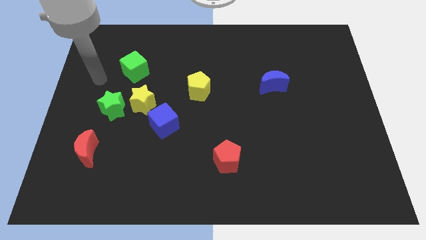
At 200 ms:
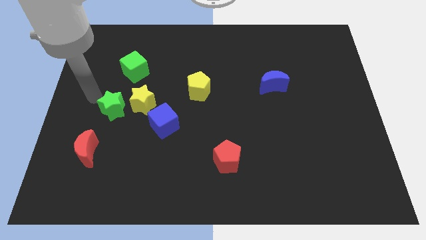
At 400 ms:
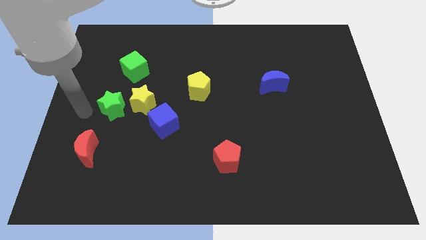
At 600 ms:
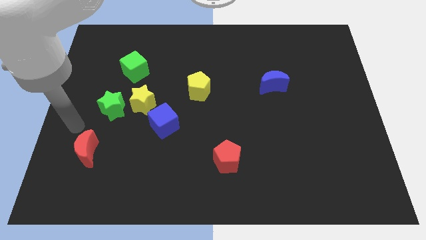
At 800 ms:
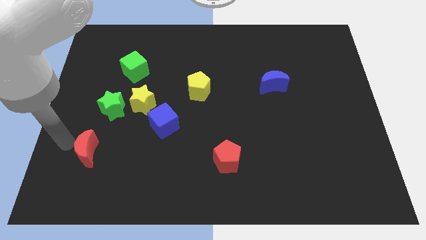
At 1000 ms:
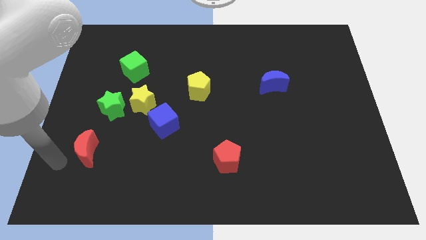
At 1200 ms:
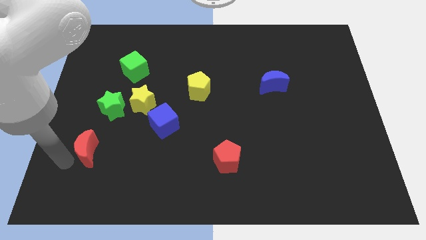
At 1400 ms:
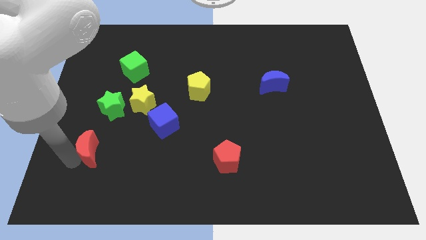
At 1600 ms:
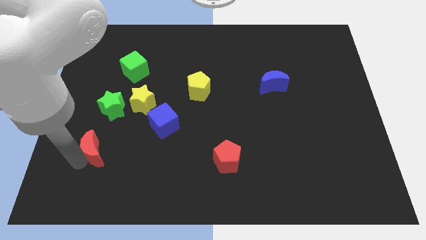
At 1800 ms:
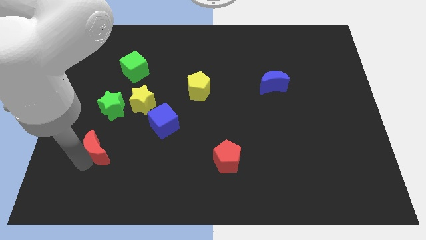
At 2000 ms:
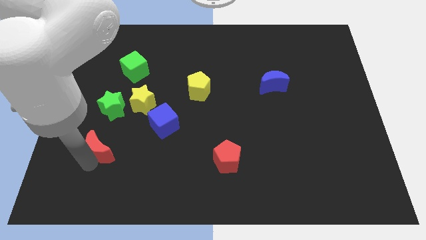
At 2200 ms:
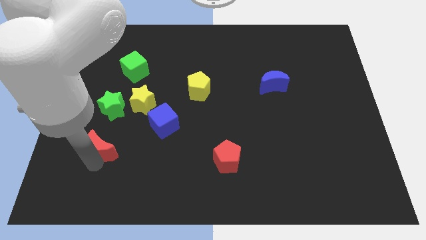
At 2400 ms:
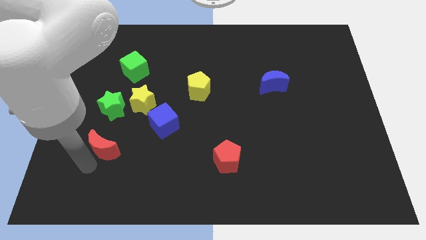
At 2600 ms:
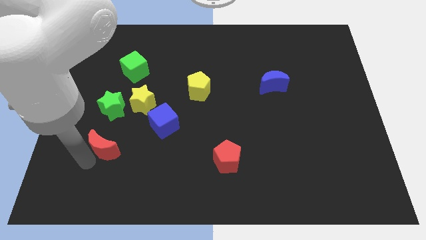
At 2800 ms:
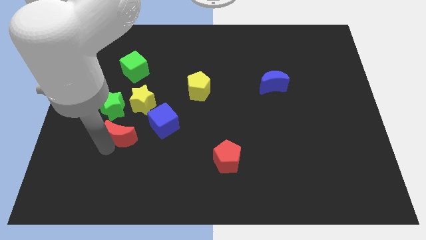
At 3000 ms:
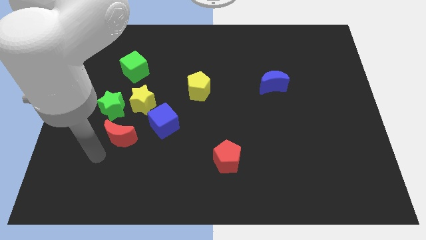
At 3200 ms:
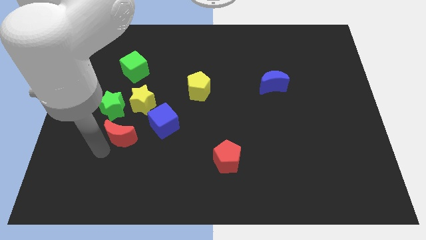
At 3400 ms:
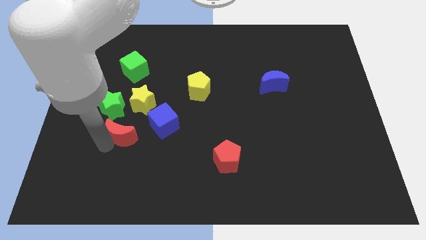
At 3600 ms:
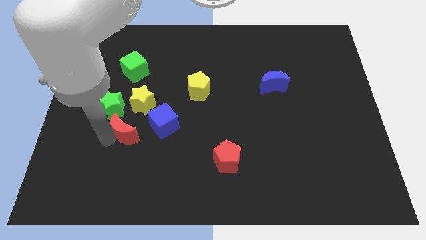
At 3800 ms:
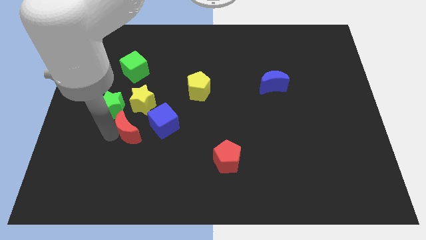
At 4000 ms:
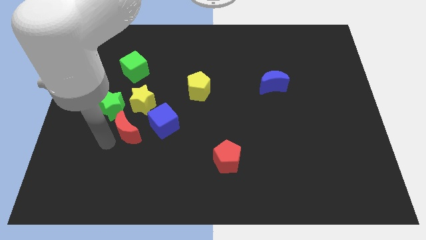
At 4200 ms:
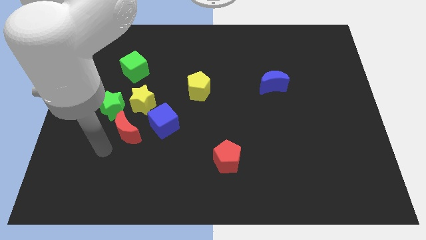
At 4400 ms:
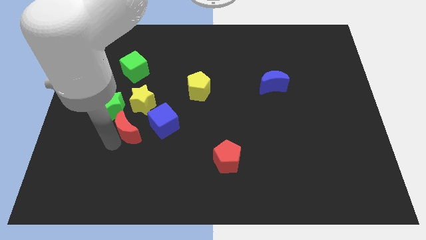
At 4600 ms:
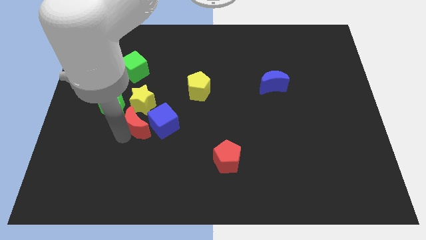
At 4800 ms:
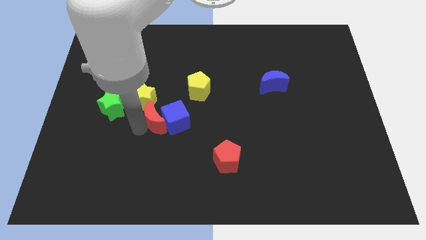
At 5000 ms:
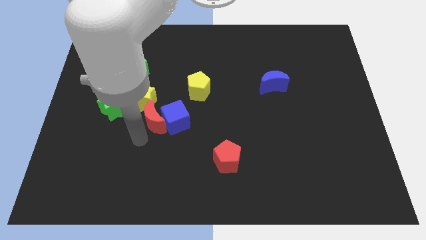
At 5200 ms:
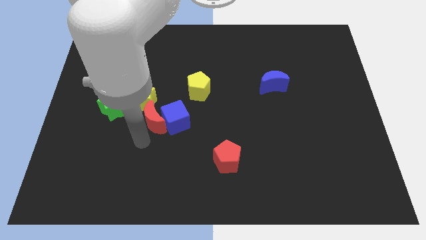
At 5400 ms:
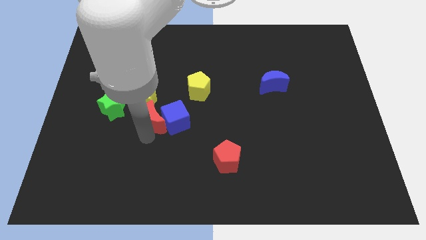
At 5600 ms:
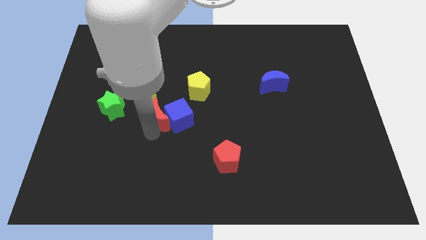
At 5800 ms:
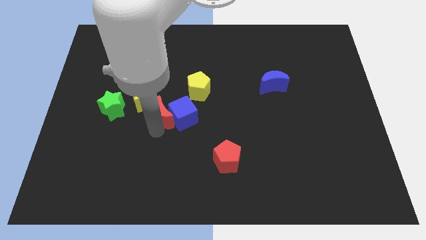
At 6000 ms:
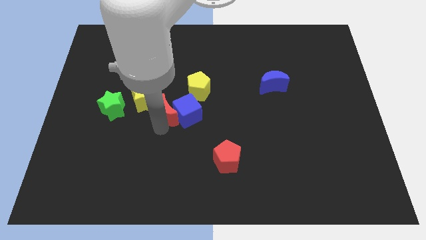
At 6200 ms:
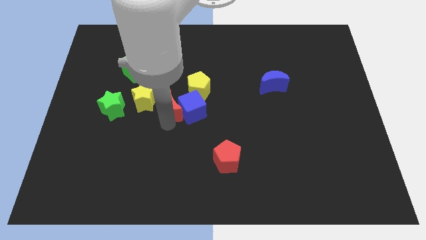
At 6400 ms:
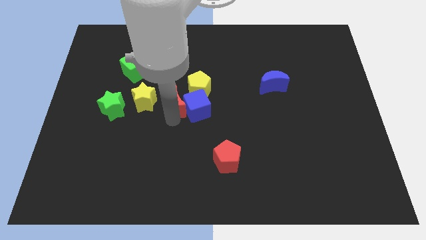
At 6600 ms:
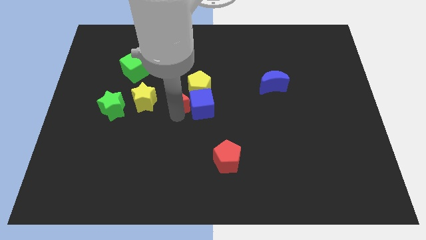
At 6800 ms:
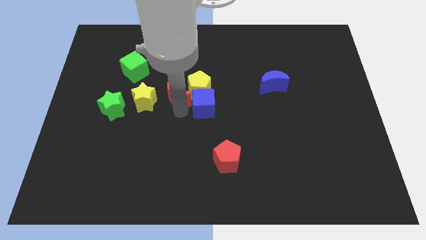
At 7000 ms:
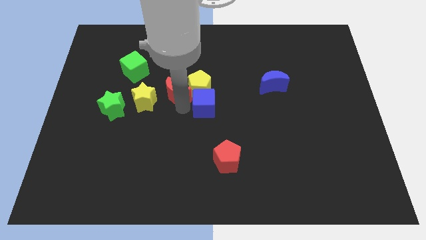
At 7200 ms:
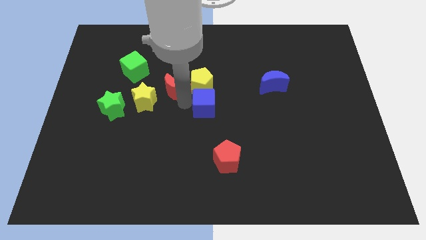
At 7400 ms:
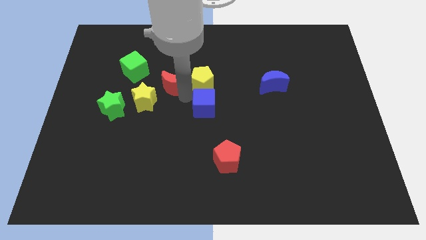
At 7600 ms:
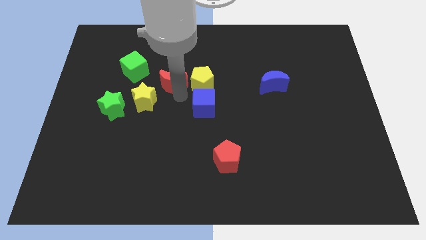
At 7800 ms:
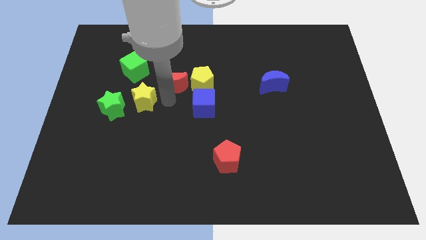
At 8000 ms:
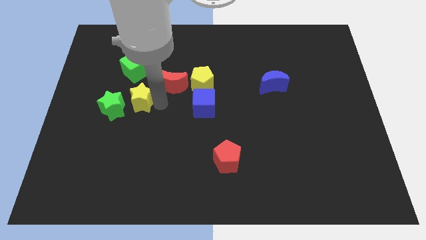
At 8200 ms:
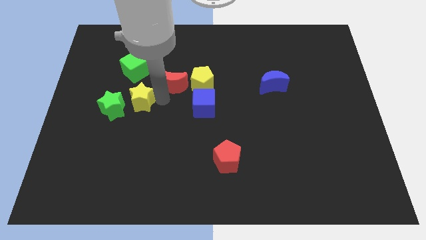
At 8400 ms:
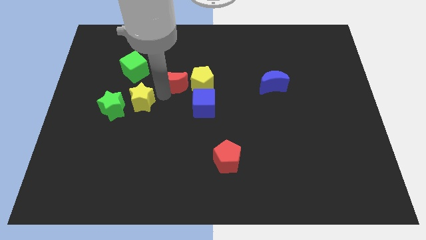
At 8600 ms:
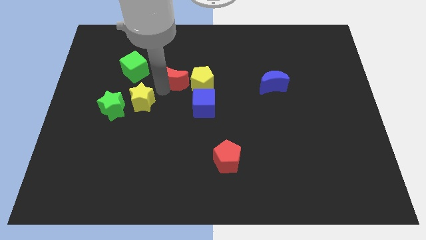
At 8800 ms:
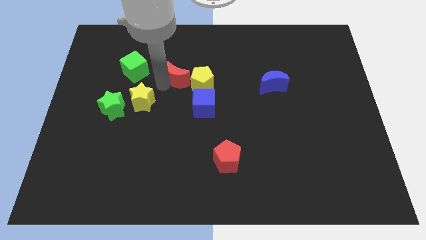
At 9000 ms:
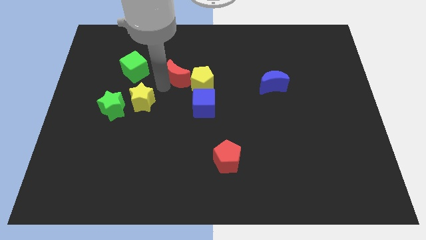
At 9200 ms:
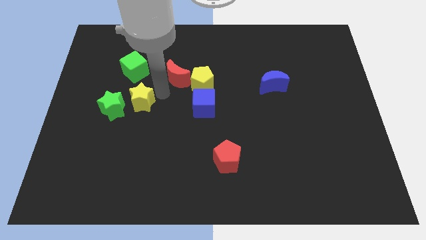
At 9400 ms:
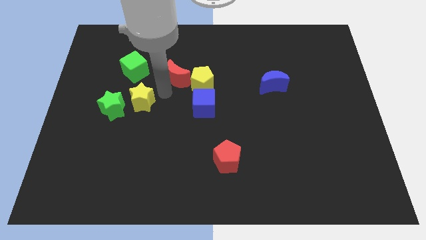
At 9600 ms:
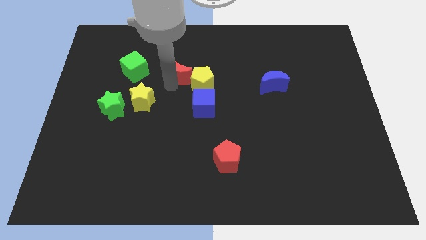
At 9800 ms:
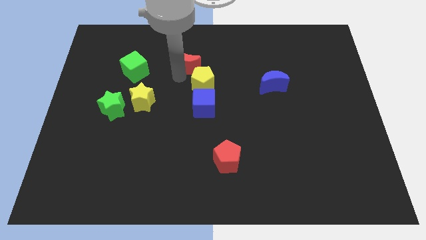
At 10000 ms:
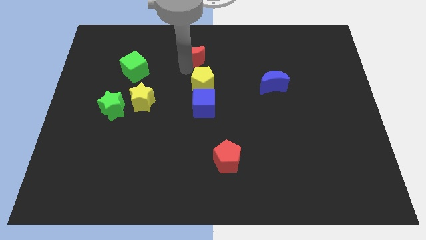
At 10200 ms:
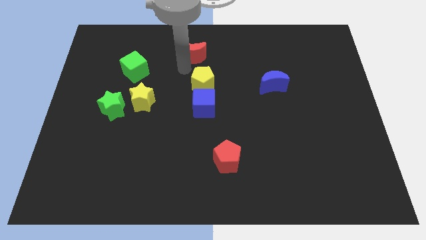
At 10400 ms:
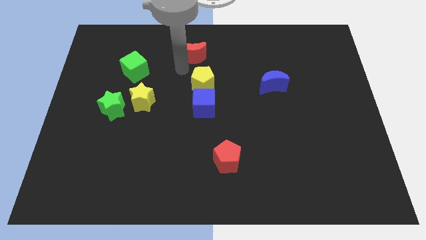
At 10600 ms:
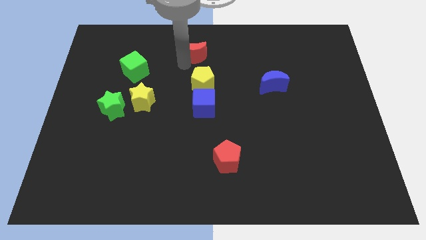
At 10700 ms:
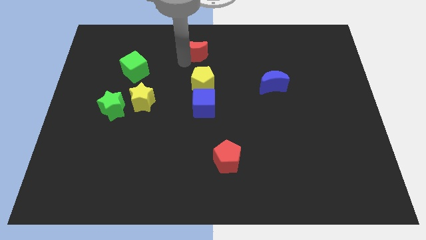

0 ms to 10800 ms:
push the red moon to the top side

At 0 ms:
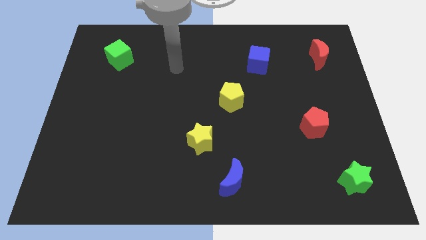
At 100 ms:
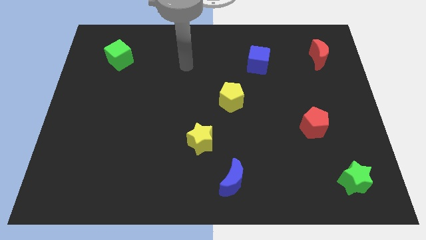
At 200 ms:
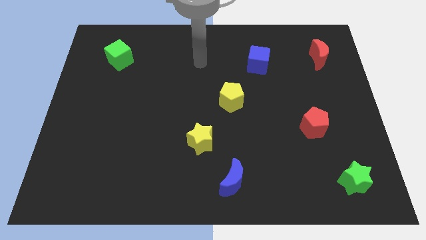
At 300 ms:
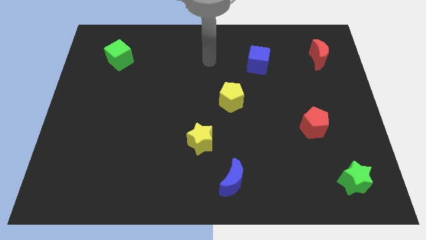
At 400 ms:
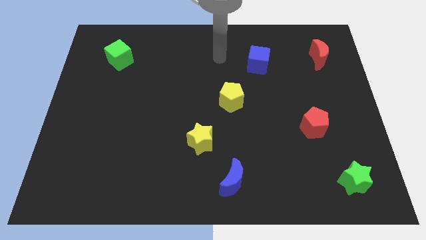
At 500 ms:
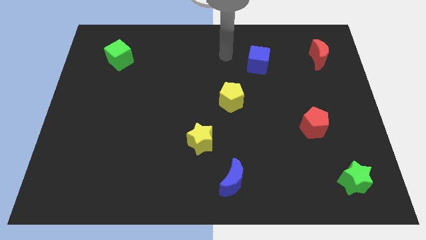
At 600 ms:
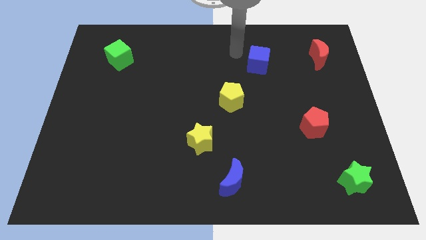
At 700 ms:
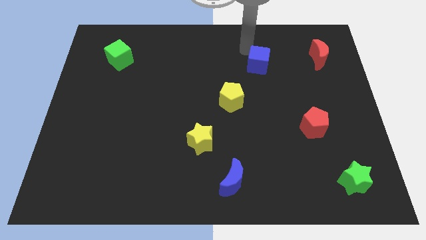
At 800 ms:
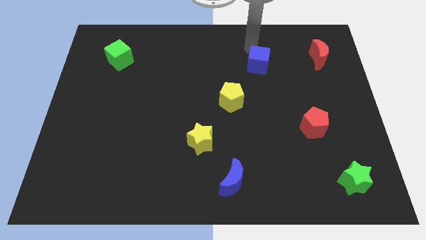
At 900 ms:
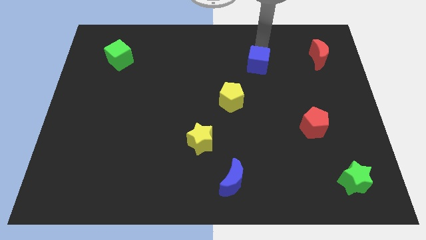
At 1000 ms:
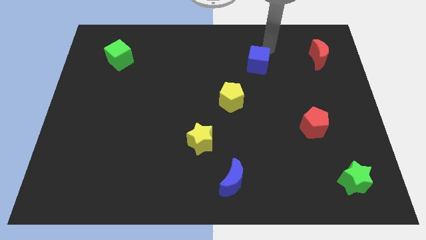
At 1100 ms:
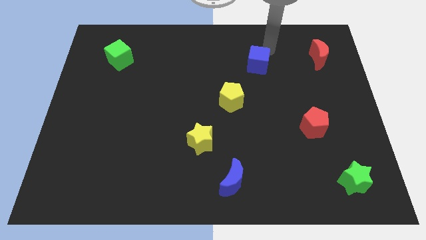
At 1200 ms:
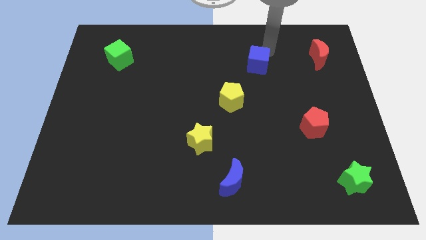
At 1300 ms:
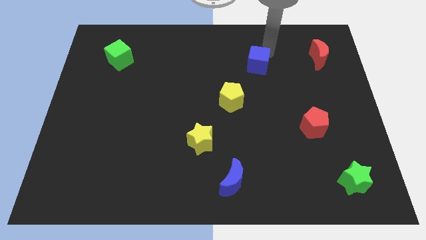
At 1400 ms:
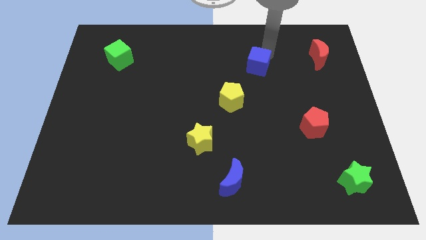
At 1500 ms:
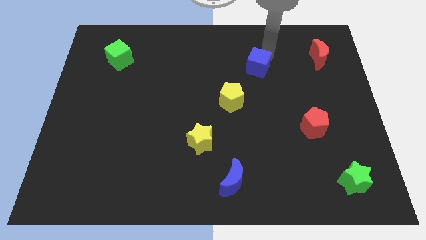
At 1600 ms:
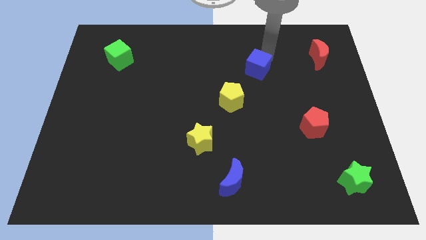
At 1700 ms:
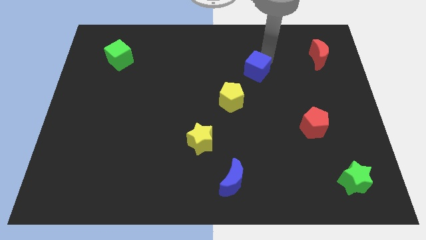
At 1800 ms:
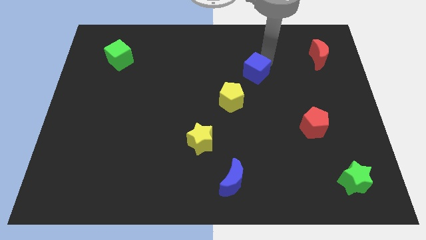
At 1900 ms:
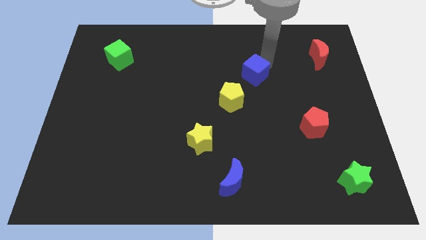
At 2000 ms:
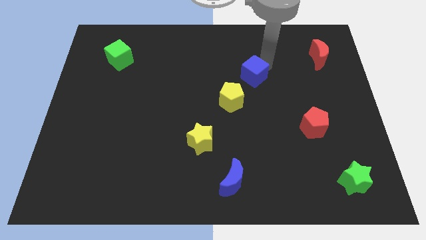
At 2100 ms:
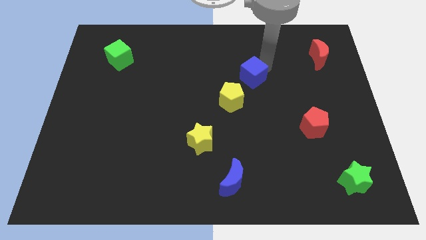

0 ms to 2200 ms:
move the blue cube to the middle of the board

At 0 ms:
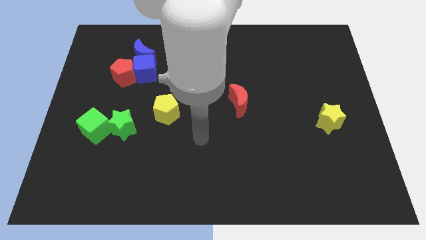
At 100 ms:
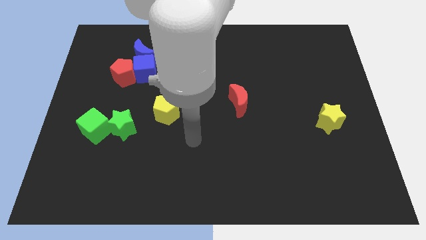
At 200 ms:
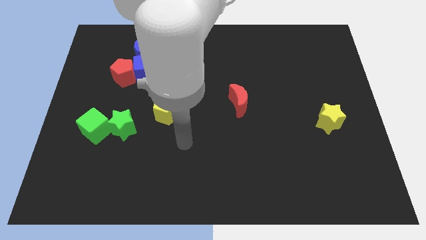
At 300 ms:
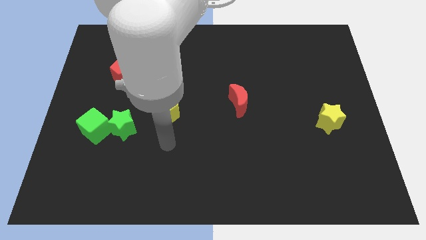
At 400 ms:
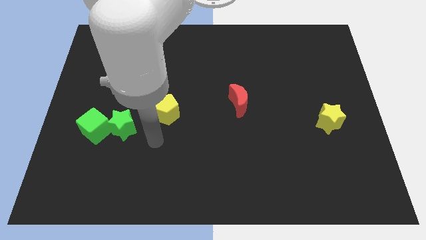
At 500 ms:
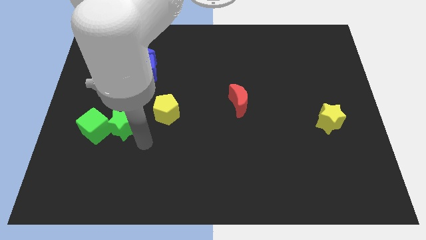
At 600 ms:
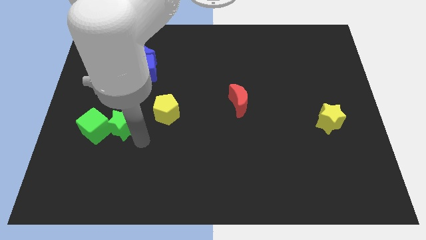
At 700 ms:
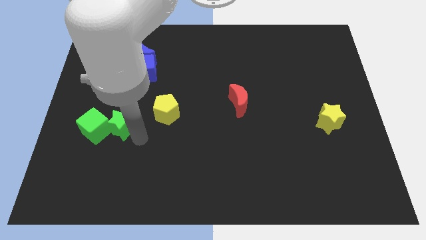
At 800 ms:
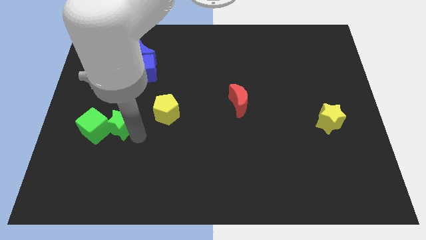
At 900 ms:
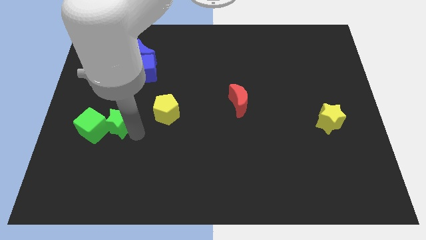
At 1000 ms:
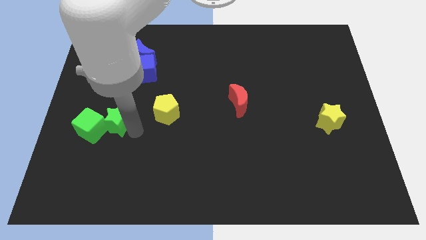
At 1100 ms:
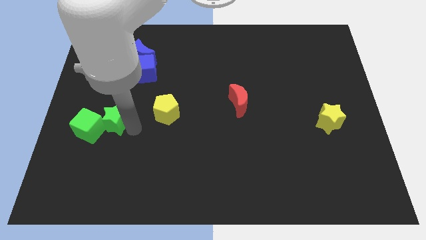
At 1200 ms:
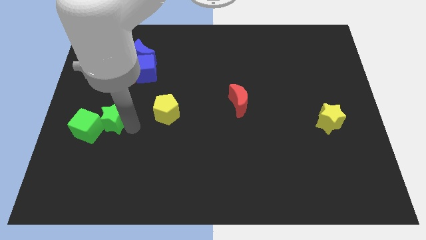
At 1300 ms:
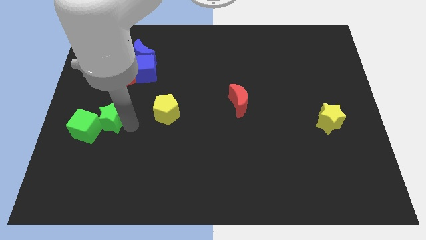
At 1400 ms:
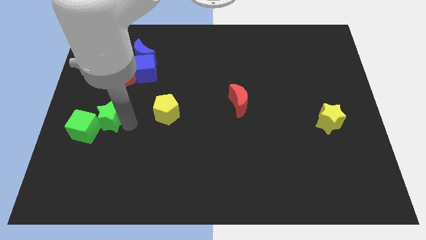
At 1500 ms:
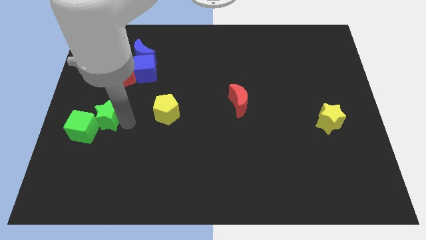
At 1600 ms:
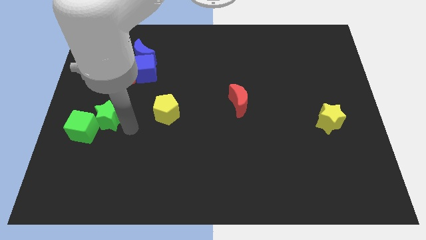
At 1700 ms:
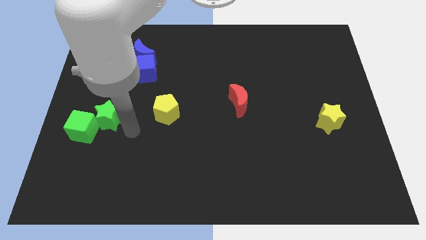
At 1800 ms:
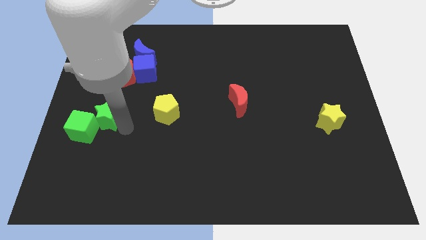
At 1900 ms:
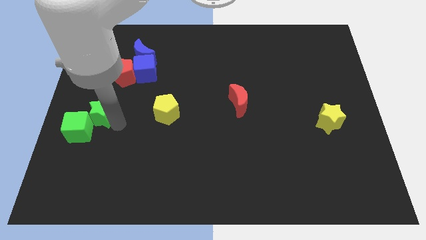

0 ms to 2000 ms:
put the green star to the center left
